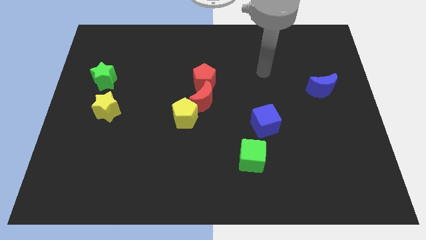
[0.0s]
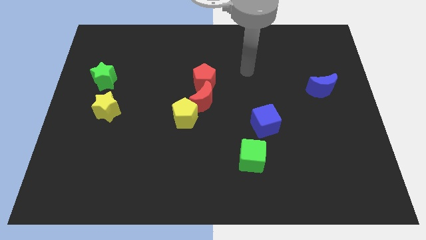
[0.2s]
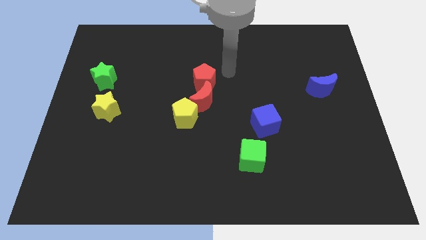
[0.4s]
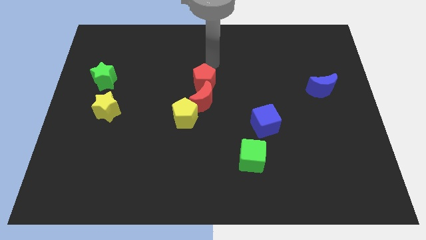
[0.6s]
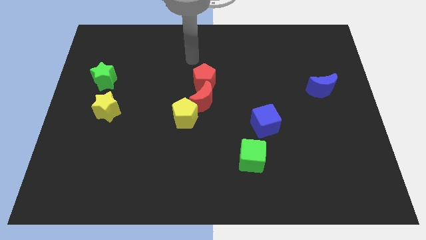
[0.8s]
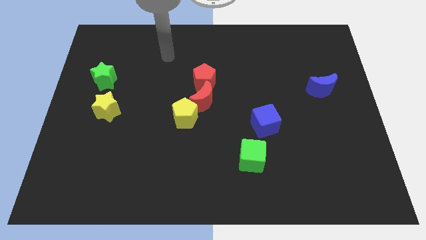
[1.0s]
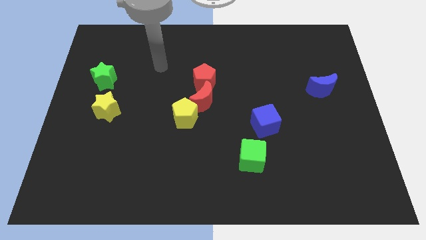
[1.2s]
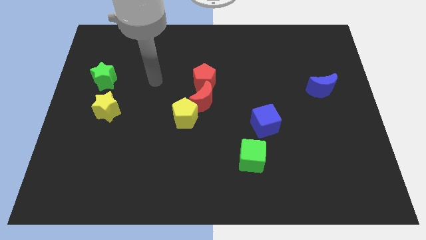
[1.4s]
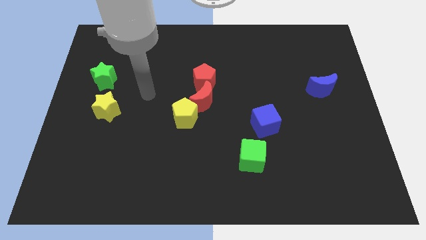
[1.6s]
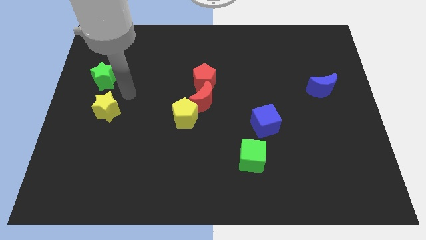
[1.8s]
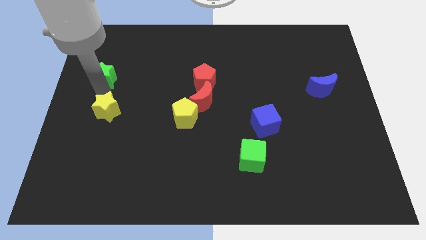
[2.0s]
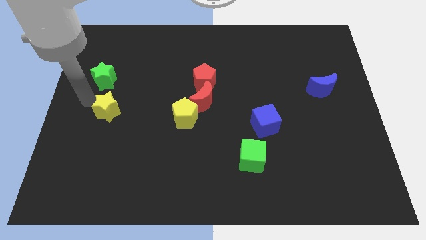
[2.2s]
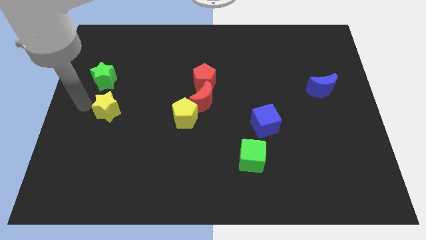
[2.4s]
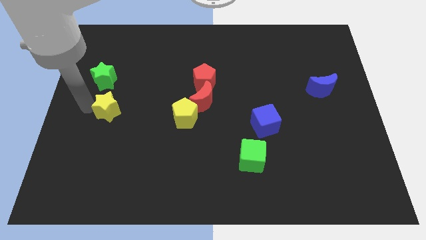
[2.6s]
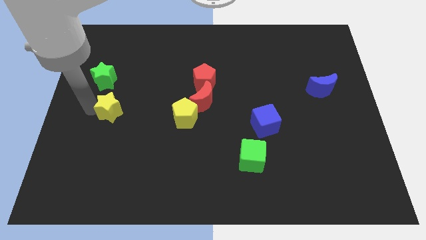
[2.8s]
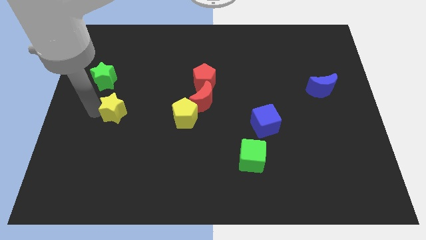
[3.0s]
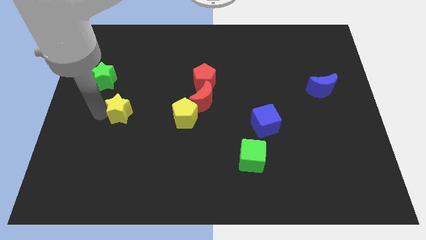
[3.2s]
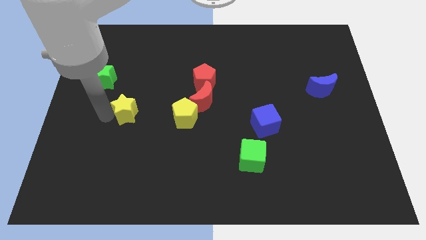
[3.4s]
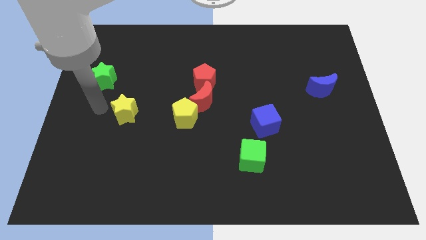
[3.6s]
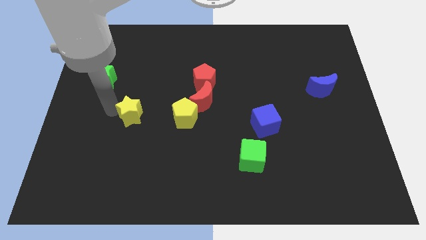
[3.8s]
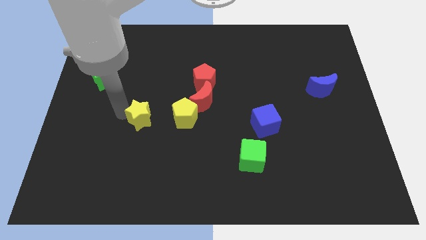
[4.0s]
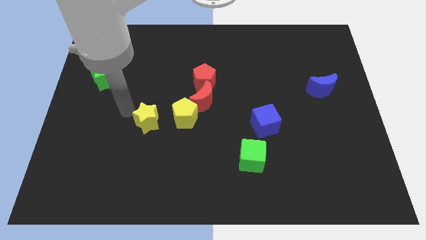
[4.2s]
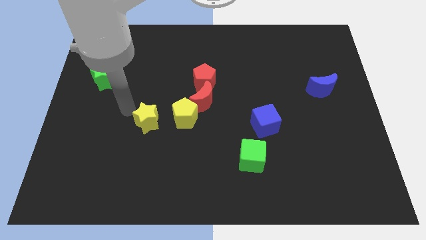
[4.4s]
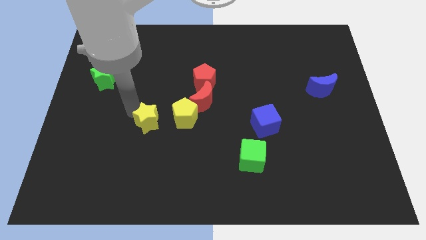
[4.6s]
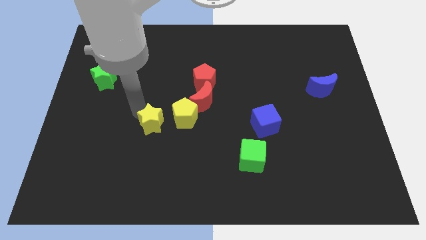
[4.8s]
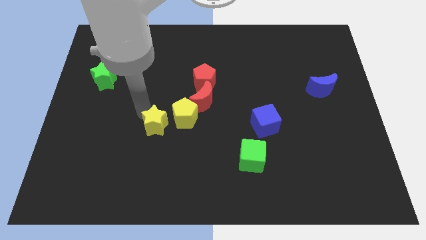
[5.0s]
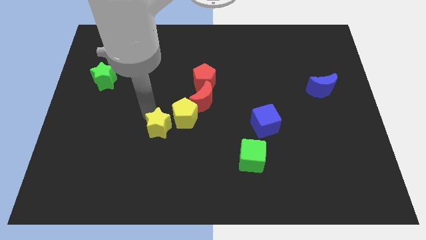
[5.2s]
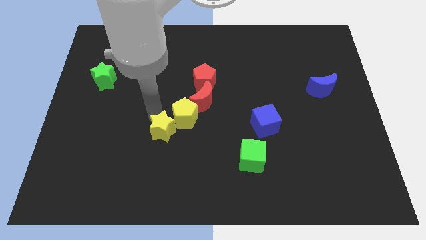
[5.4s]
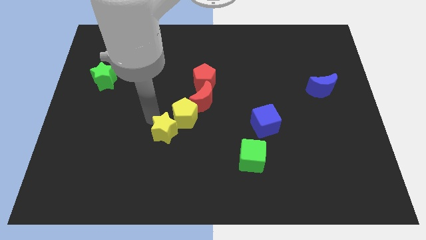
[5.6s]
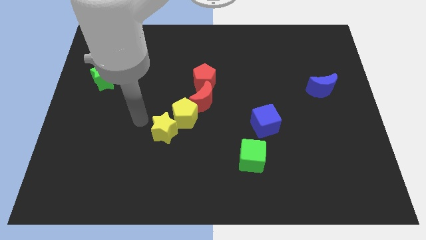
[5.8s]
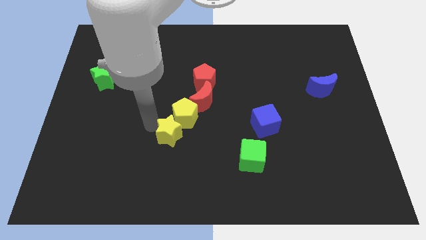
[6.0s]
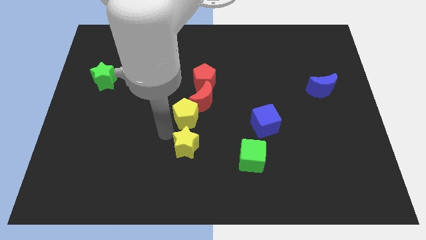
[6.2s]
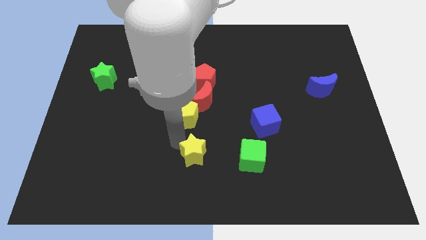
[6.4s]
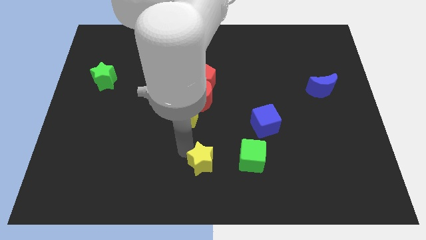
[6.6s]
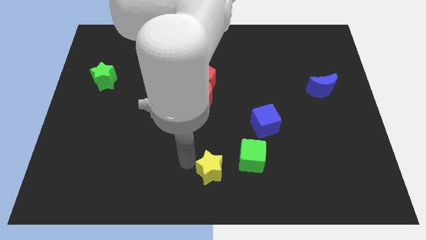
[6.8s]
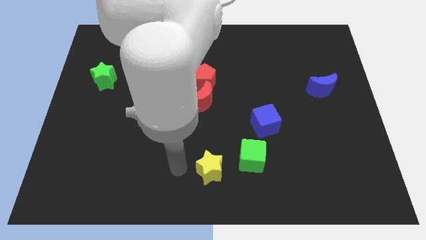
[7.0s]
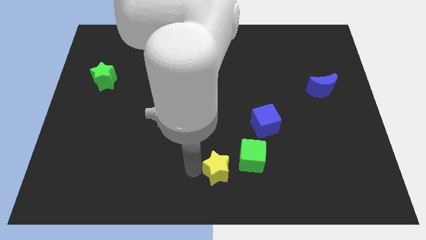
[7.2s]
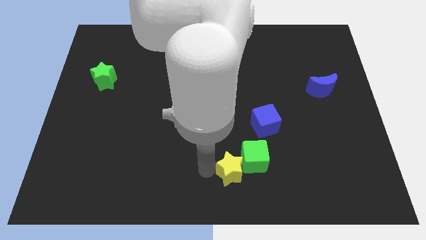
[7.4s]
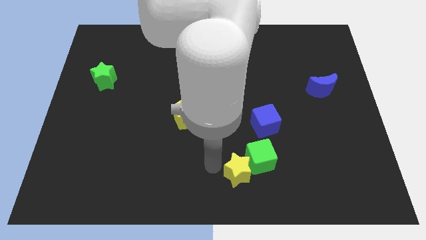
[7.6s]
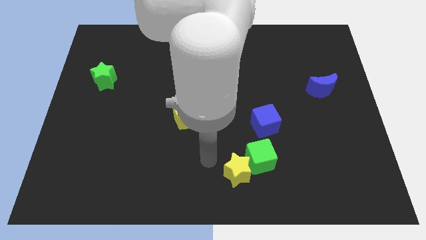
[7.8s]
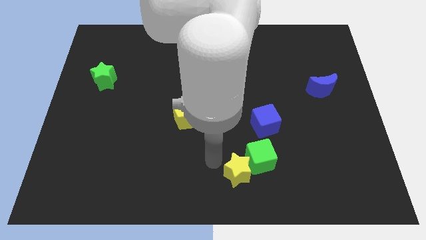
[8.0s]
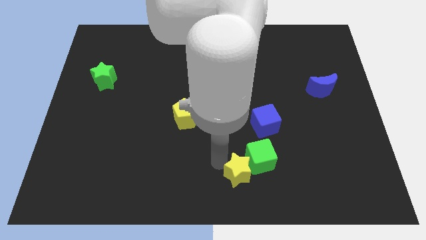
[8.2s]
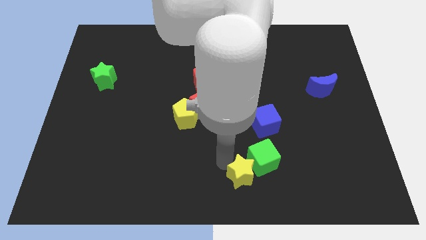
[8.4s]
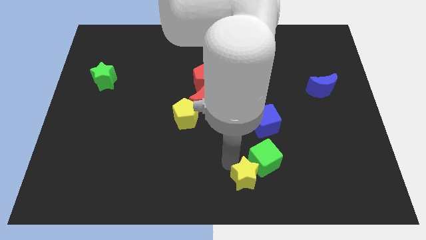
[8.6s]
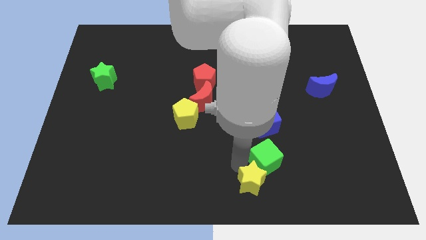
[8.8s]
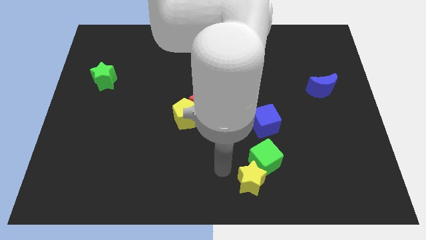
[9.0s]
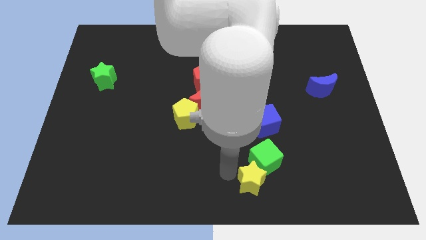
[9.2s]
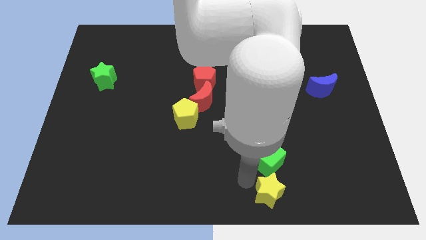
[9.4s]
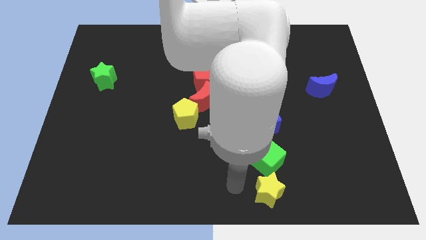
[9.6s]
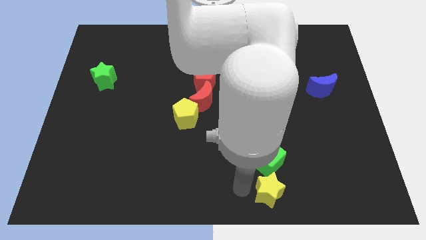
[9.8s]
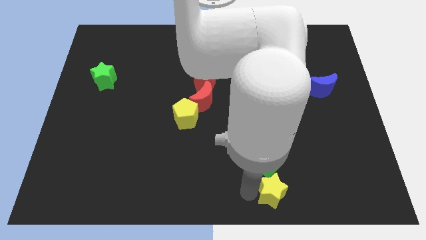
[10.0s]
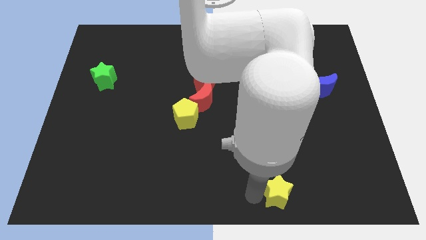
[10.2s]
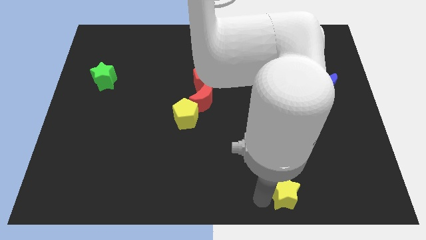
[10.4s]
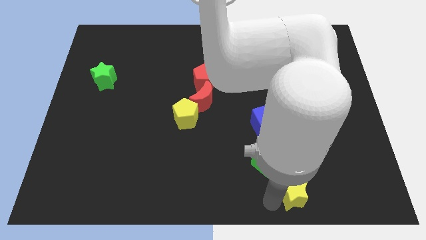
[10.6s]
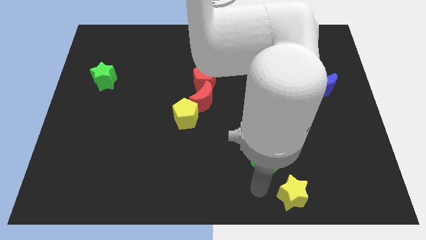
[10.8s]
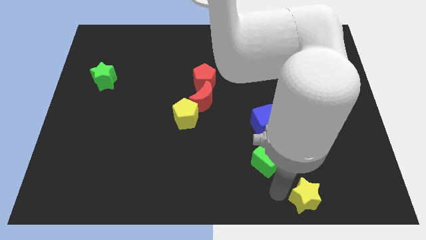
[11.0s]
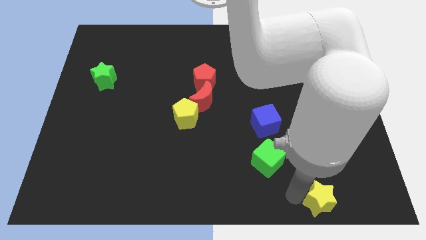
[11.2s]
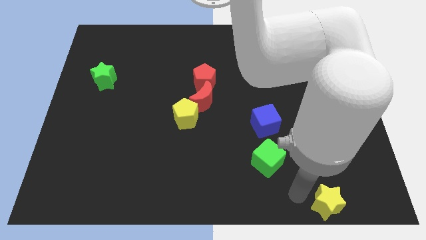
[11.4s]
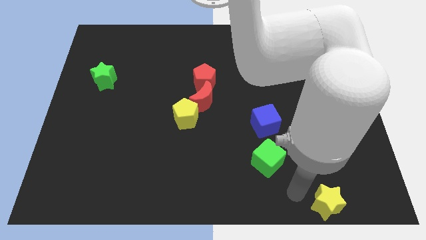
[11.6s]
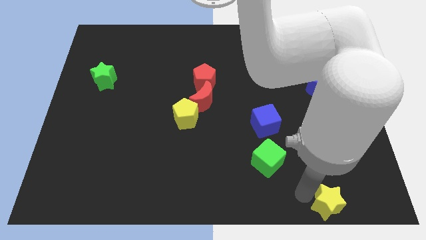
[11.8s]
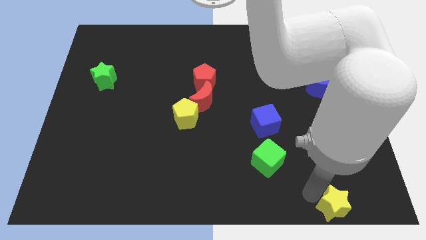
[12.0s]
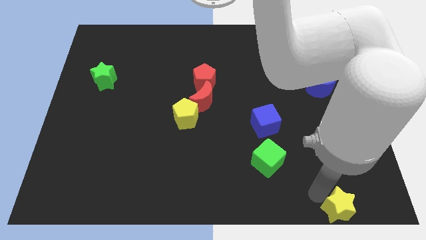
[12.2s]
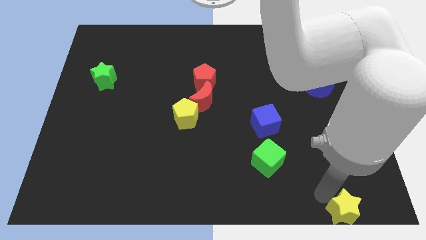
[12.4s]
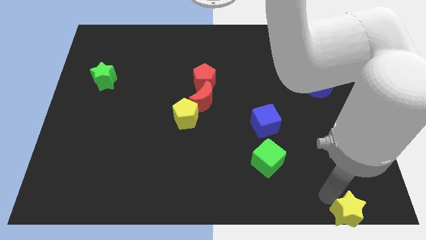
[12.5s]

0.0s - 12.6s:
slide the yellow star to the bottom right of the board

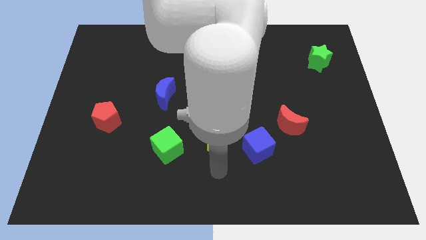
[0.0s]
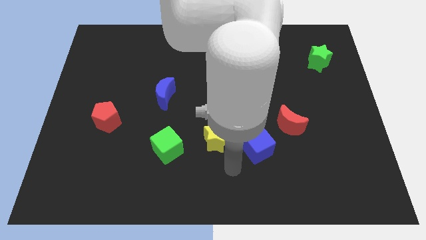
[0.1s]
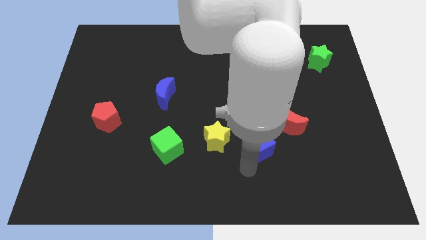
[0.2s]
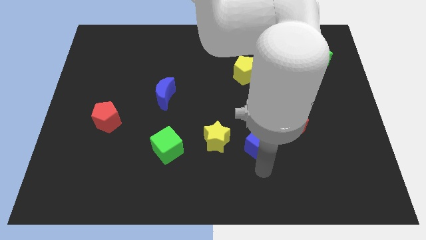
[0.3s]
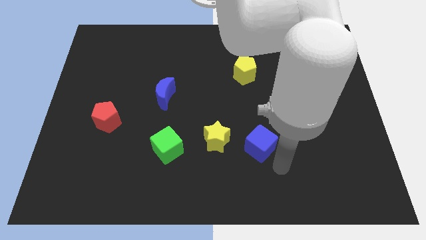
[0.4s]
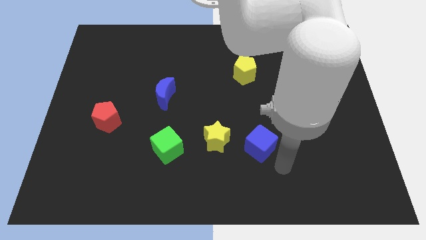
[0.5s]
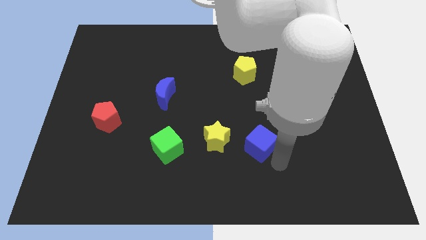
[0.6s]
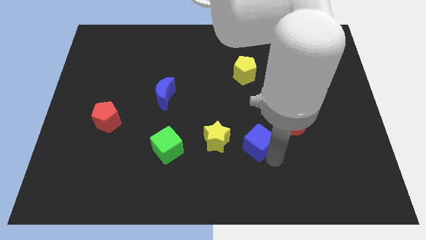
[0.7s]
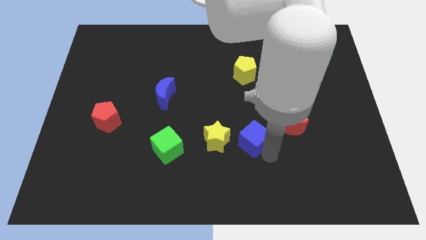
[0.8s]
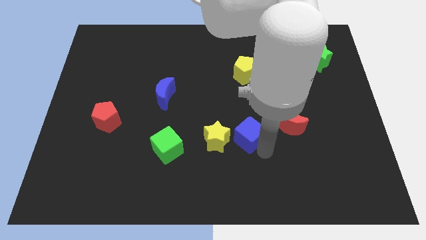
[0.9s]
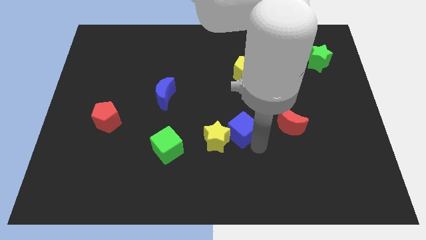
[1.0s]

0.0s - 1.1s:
push the blue cube to the middle of the board
